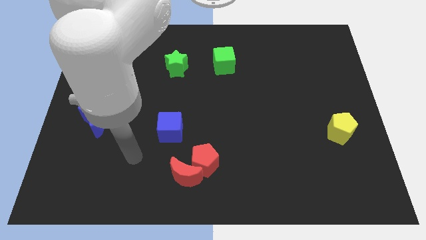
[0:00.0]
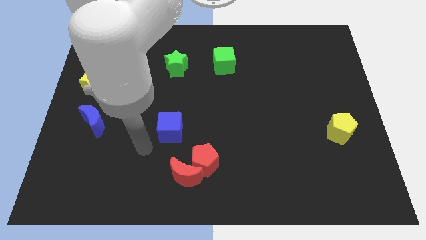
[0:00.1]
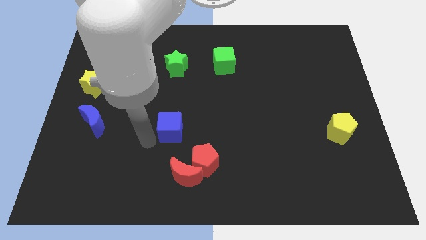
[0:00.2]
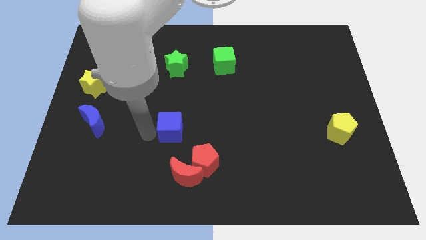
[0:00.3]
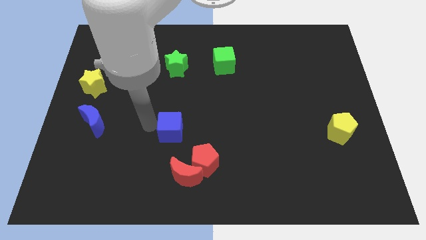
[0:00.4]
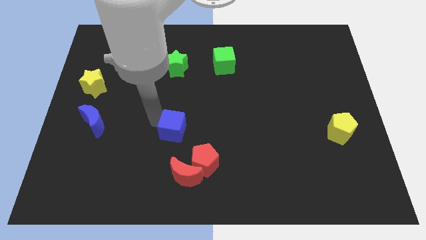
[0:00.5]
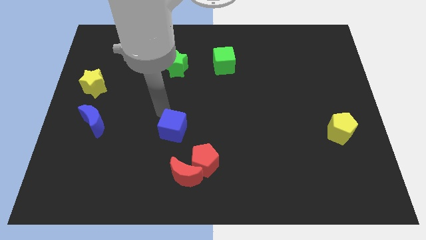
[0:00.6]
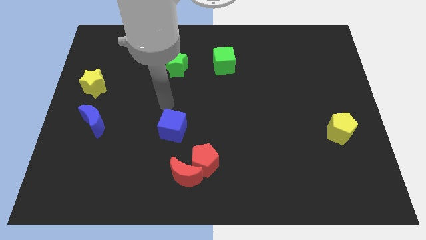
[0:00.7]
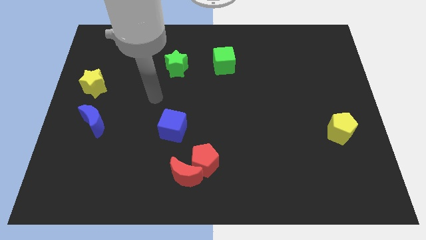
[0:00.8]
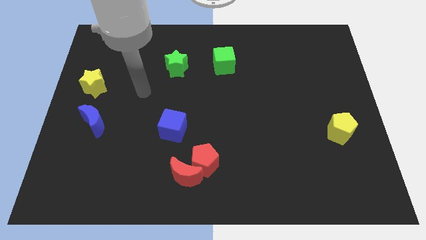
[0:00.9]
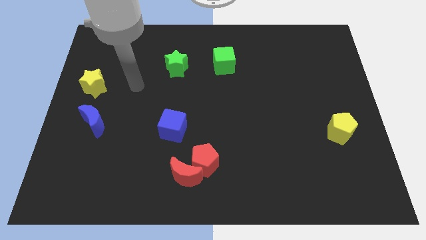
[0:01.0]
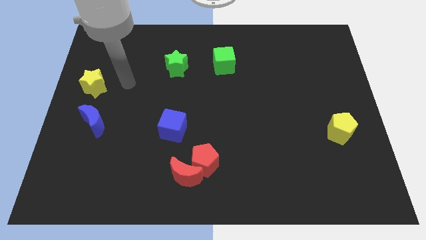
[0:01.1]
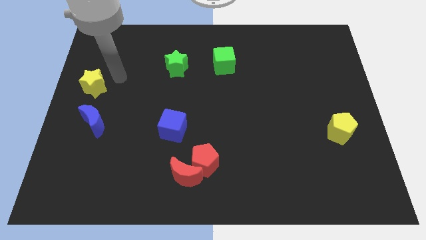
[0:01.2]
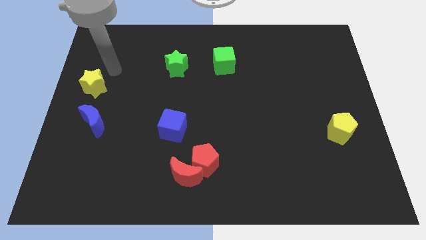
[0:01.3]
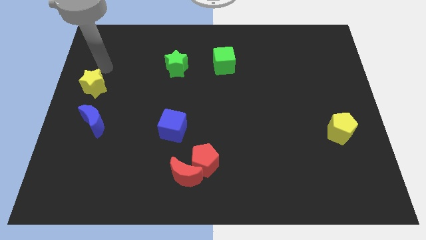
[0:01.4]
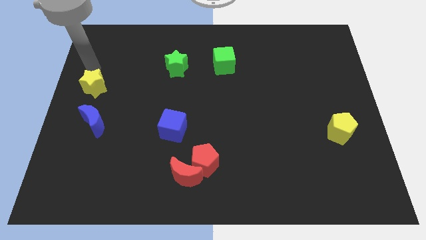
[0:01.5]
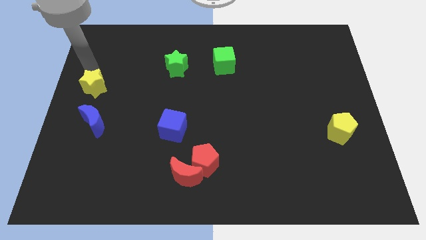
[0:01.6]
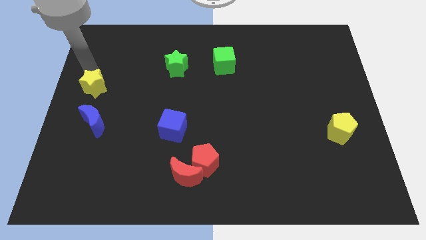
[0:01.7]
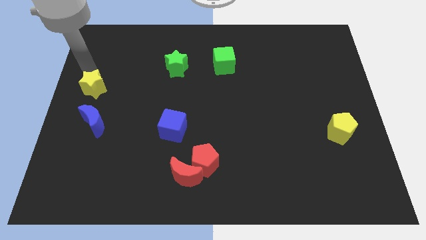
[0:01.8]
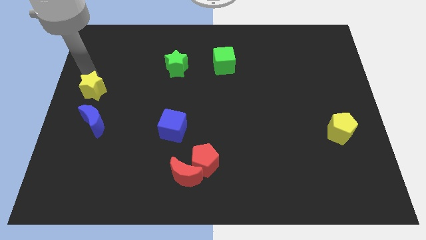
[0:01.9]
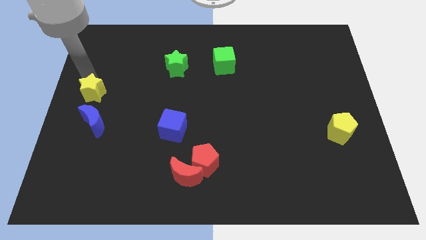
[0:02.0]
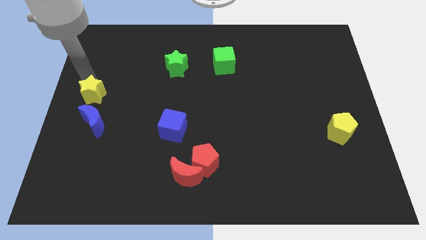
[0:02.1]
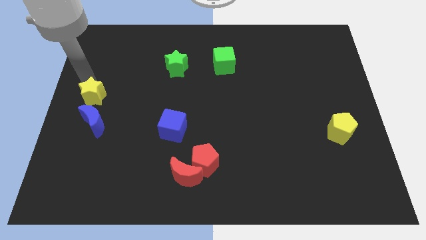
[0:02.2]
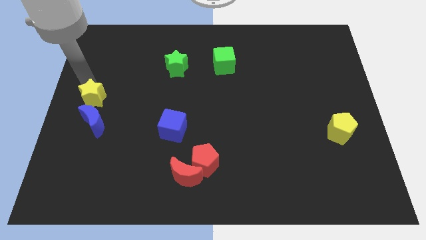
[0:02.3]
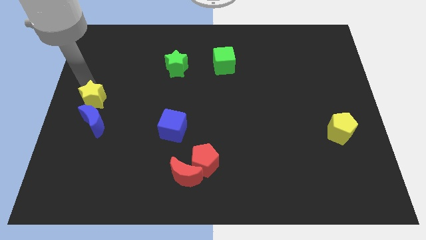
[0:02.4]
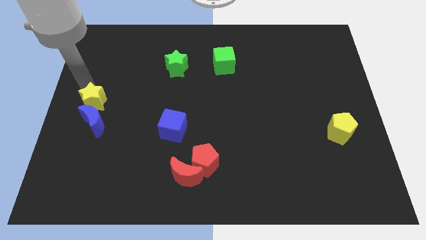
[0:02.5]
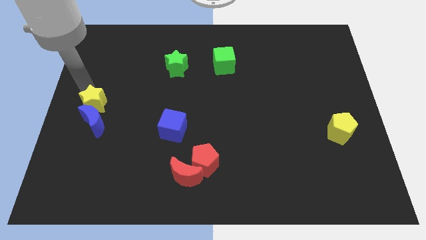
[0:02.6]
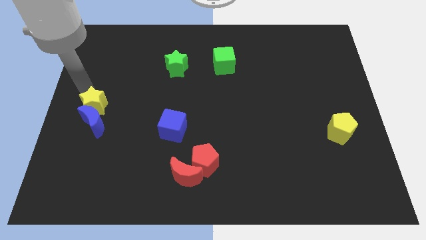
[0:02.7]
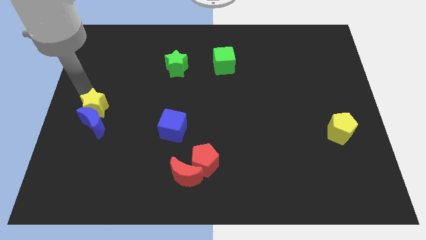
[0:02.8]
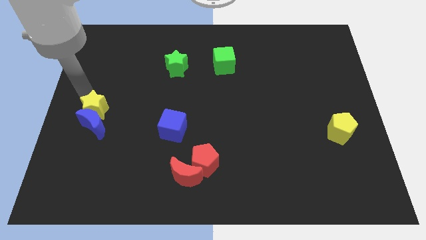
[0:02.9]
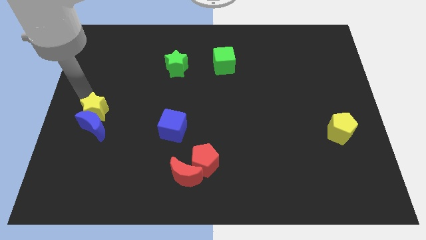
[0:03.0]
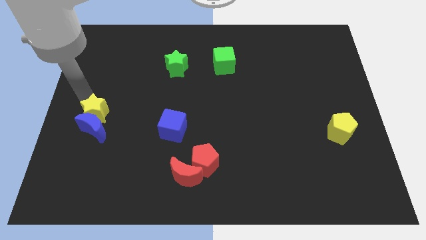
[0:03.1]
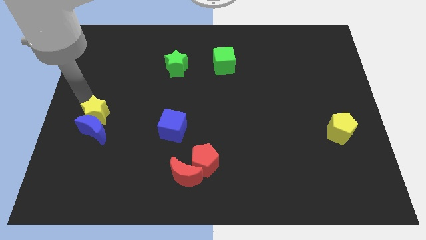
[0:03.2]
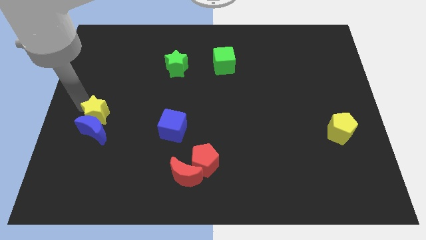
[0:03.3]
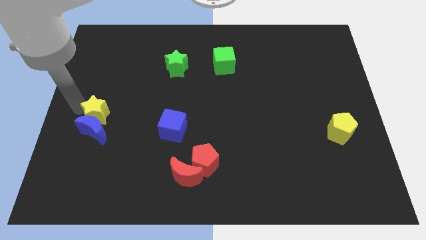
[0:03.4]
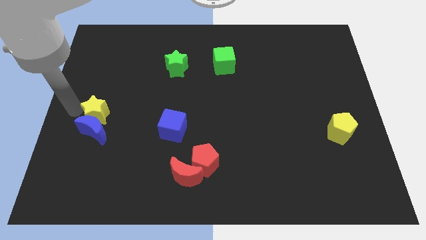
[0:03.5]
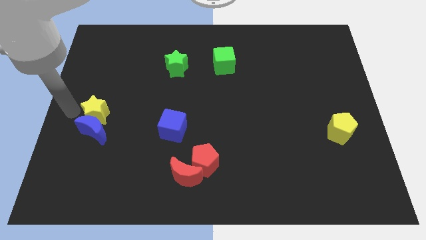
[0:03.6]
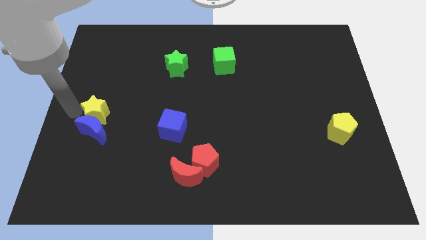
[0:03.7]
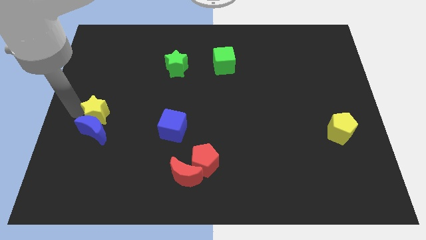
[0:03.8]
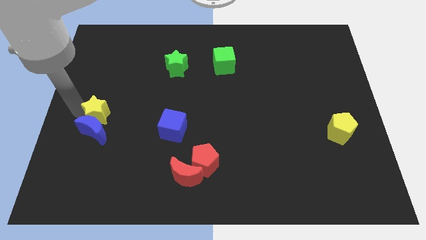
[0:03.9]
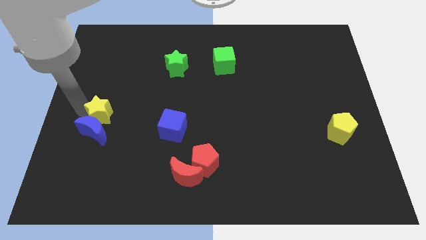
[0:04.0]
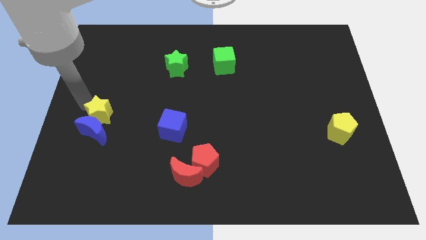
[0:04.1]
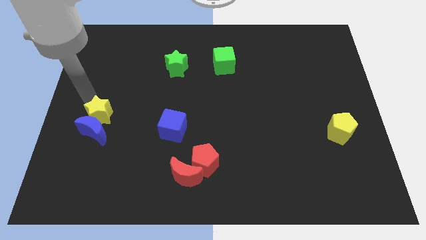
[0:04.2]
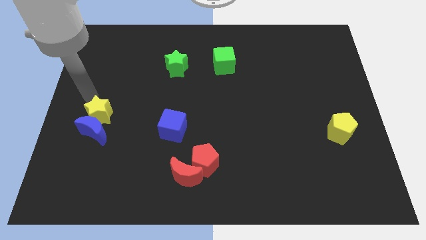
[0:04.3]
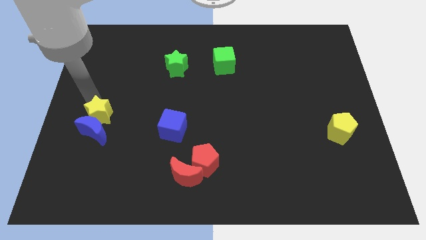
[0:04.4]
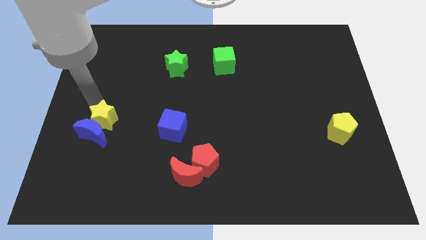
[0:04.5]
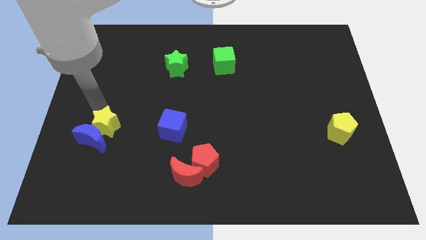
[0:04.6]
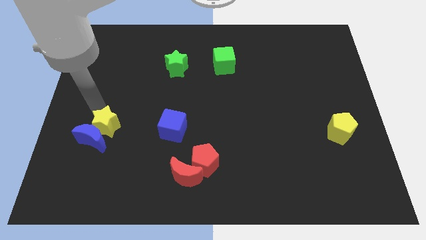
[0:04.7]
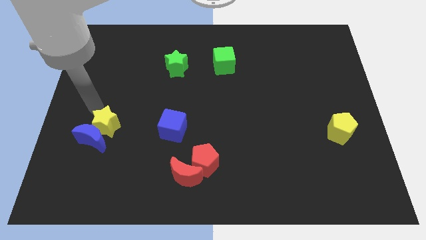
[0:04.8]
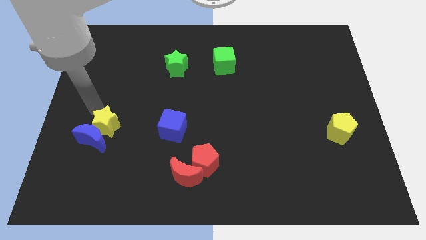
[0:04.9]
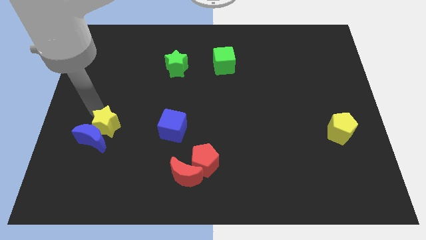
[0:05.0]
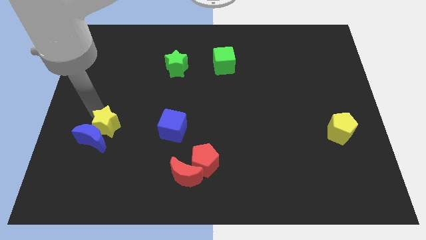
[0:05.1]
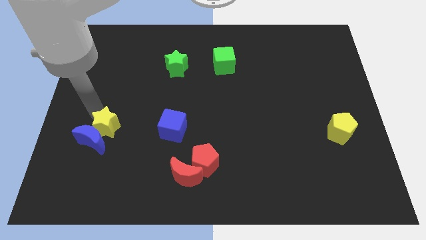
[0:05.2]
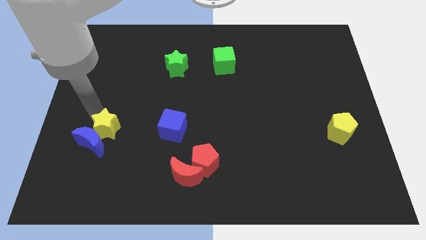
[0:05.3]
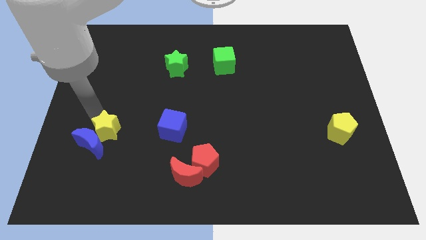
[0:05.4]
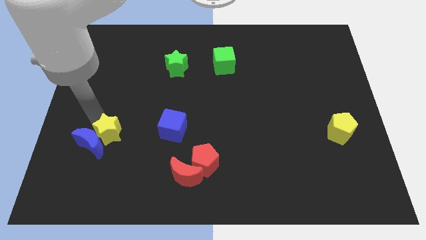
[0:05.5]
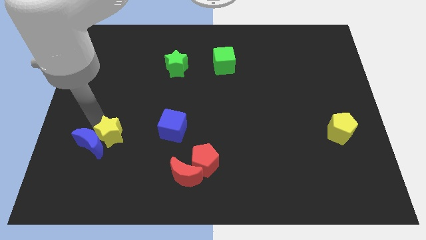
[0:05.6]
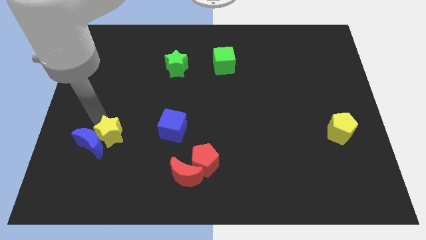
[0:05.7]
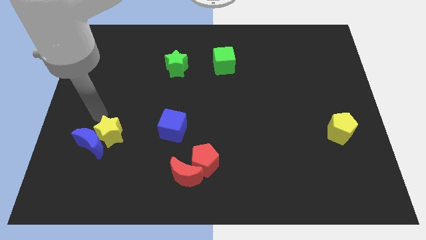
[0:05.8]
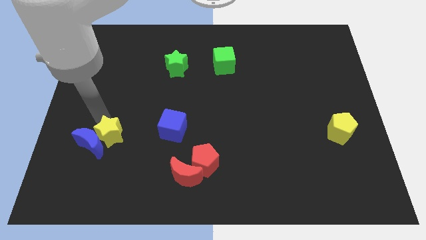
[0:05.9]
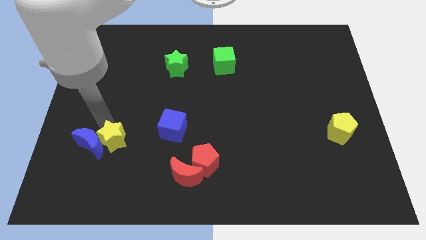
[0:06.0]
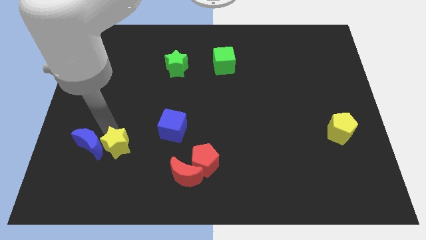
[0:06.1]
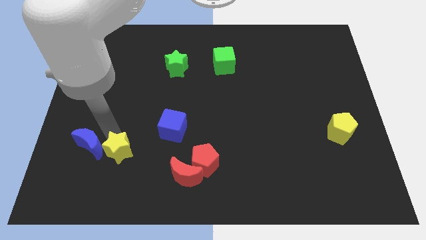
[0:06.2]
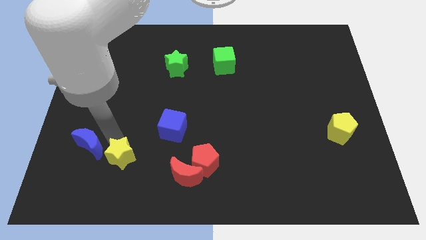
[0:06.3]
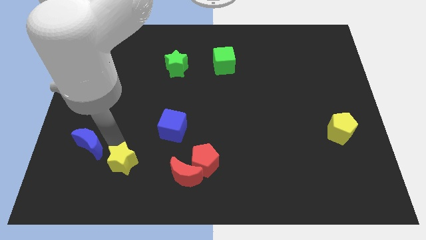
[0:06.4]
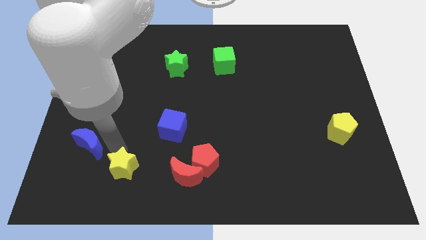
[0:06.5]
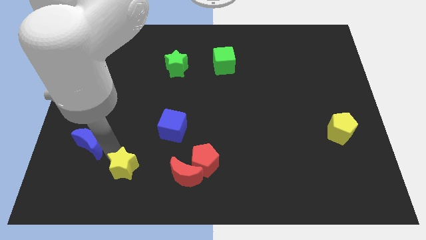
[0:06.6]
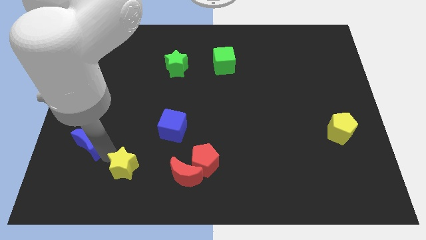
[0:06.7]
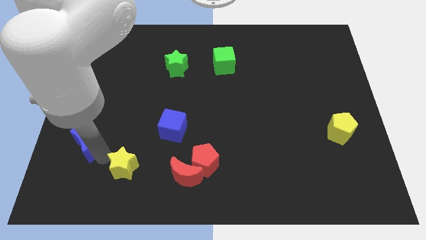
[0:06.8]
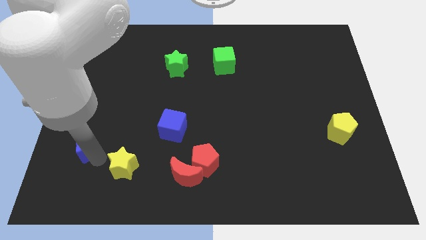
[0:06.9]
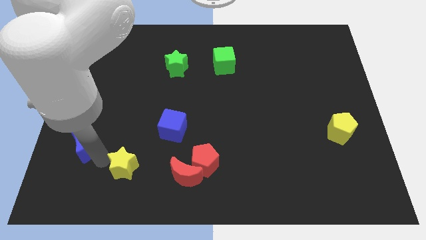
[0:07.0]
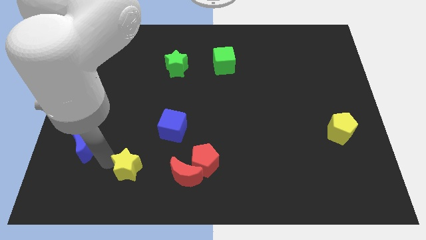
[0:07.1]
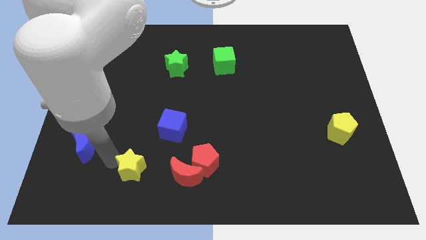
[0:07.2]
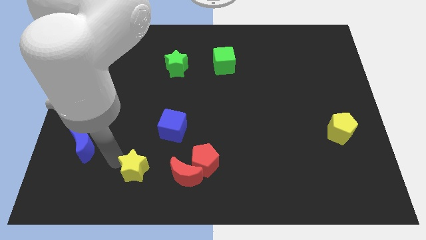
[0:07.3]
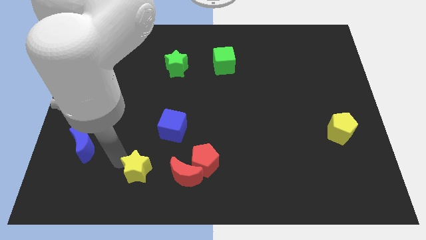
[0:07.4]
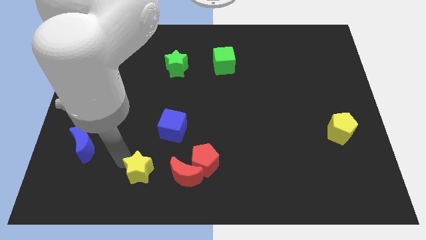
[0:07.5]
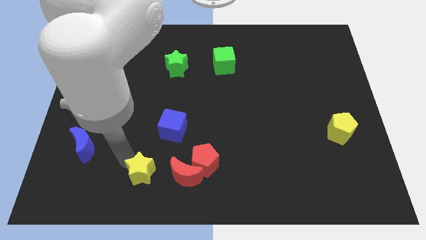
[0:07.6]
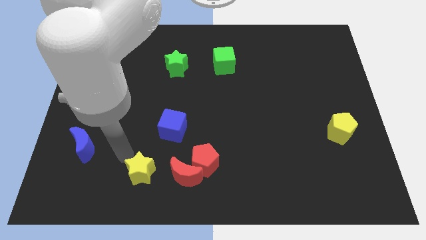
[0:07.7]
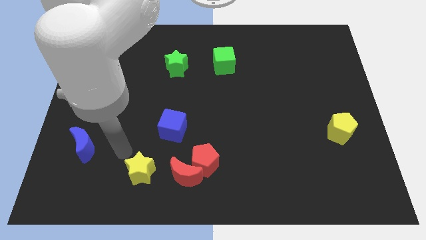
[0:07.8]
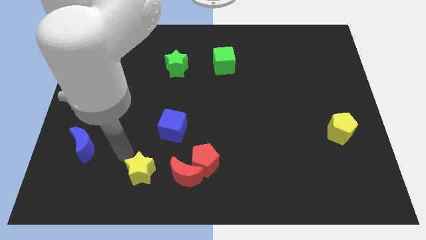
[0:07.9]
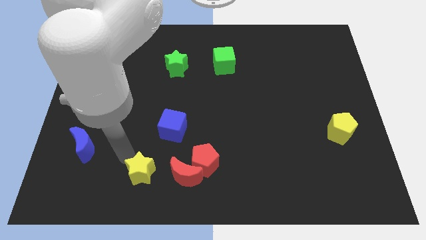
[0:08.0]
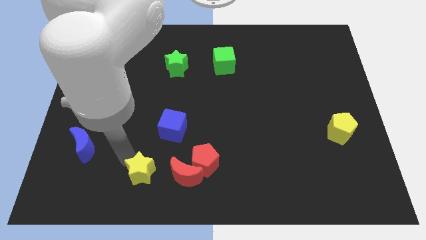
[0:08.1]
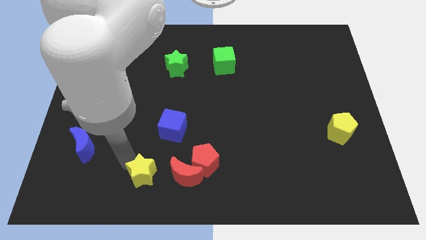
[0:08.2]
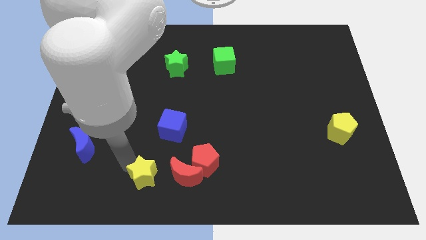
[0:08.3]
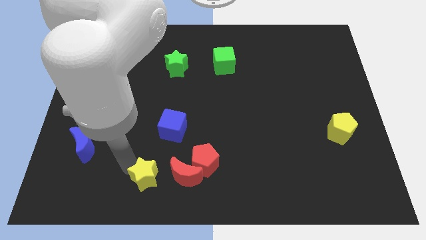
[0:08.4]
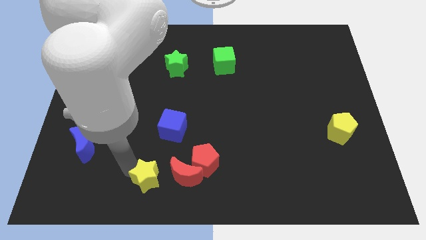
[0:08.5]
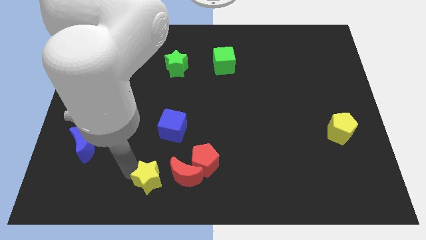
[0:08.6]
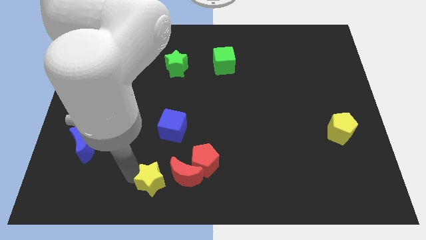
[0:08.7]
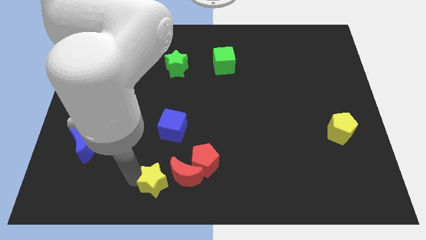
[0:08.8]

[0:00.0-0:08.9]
put the yellow star to the bottom side
